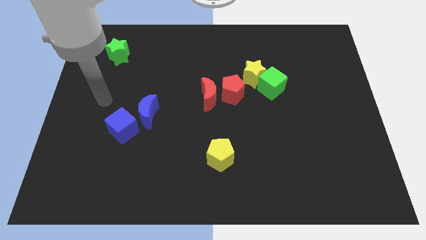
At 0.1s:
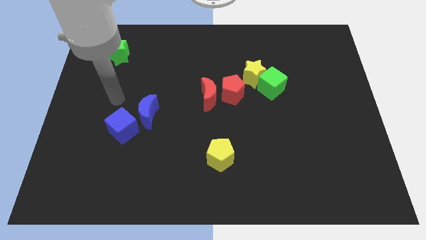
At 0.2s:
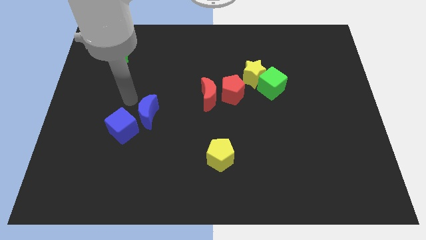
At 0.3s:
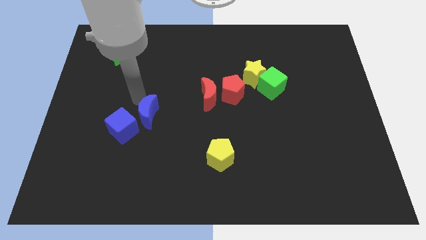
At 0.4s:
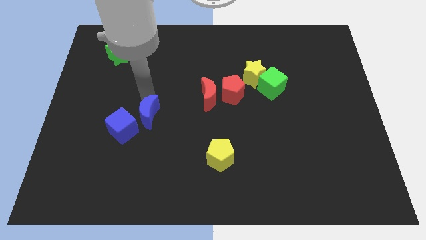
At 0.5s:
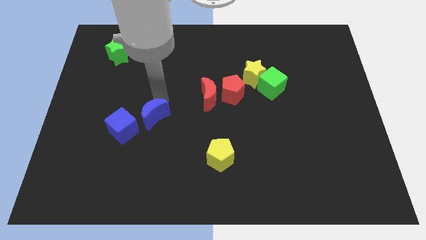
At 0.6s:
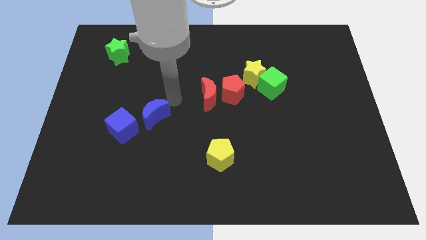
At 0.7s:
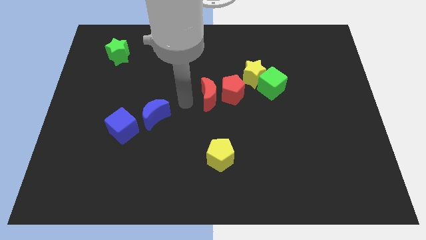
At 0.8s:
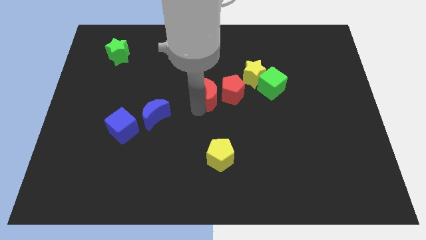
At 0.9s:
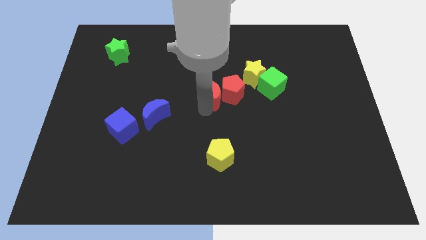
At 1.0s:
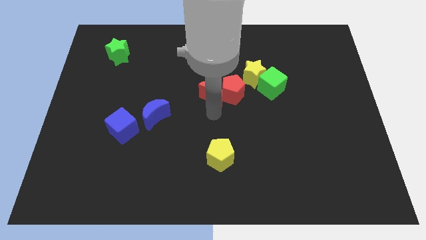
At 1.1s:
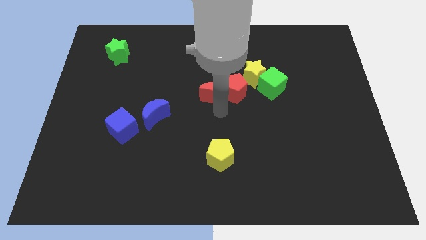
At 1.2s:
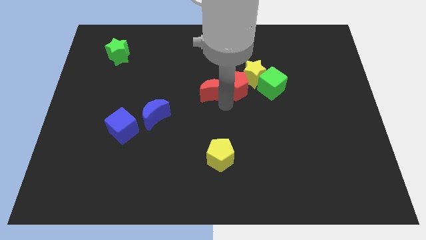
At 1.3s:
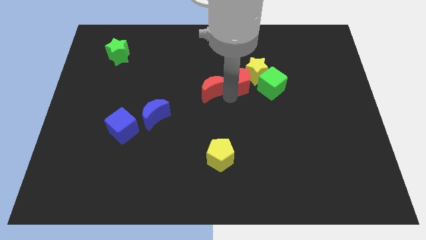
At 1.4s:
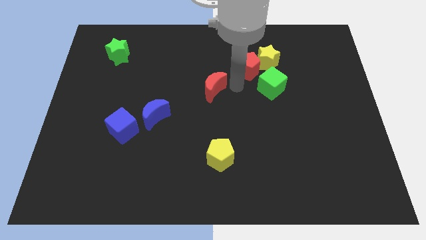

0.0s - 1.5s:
pull the red moon apart from the red pentagon

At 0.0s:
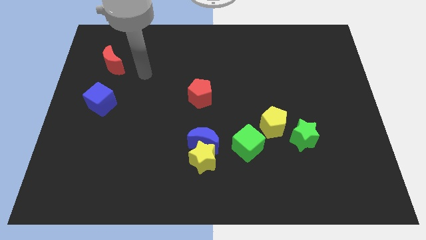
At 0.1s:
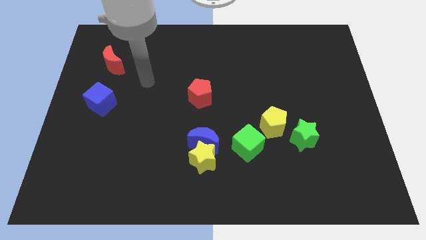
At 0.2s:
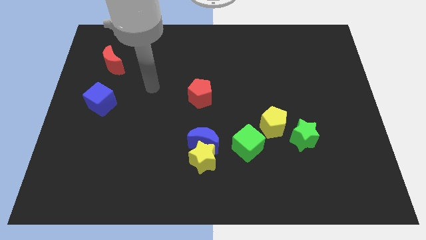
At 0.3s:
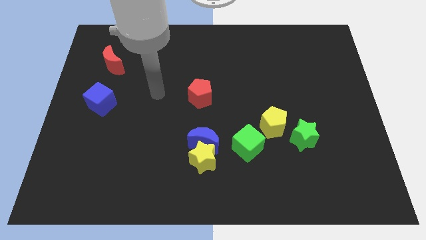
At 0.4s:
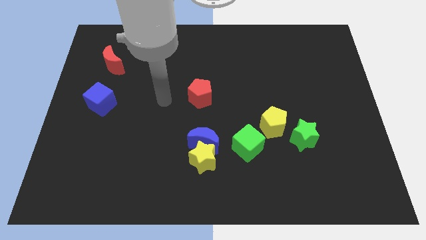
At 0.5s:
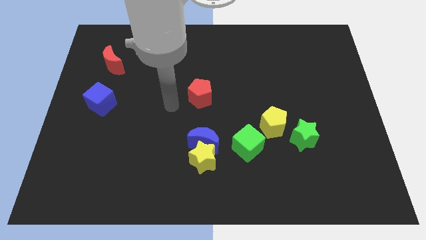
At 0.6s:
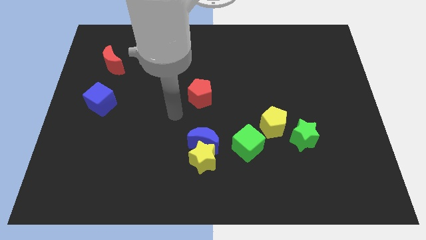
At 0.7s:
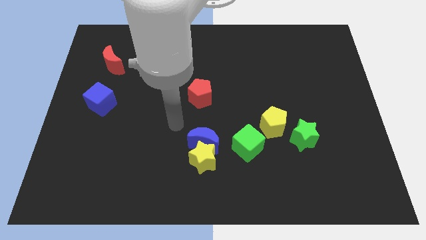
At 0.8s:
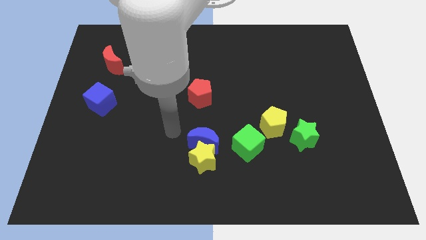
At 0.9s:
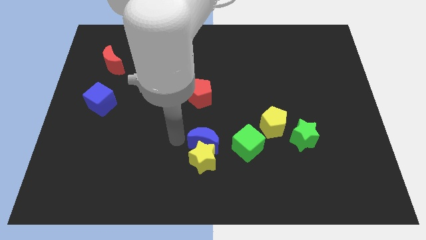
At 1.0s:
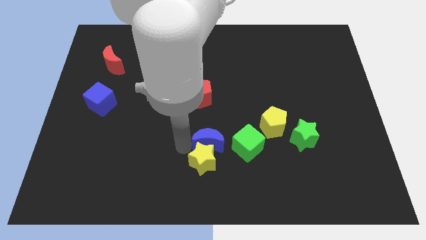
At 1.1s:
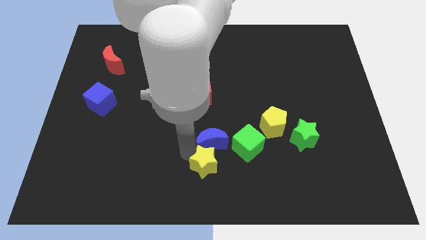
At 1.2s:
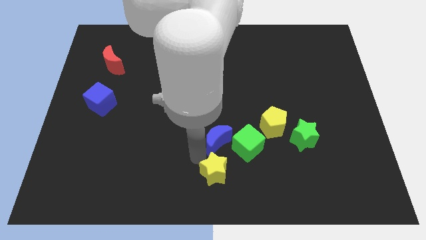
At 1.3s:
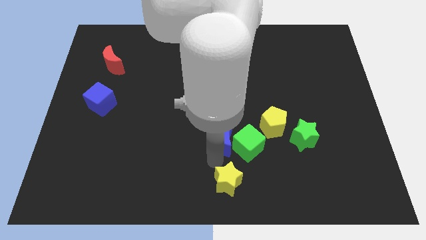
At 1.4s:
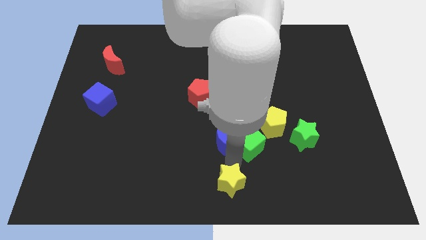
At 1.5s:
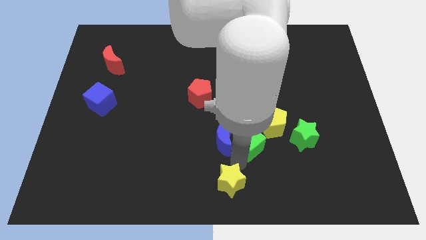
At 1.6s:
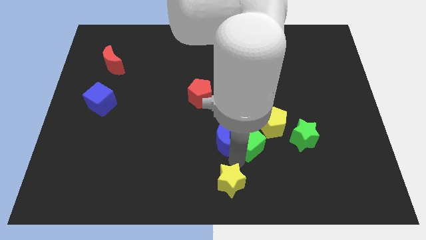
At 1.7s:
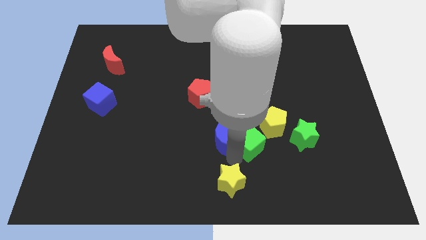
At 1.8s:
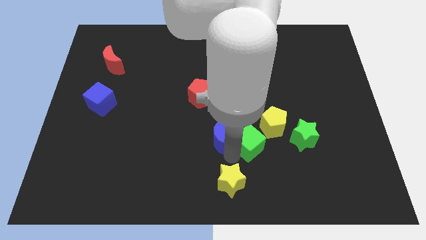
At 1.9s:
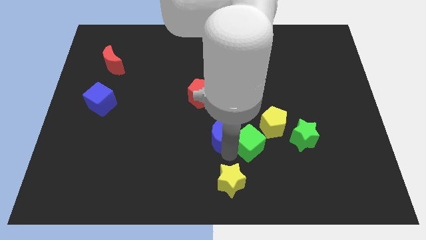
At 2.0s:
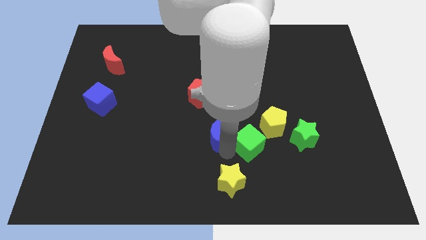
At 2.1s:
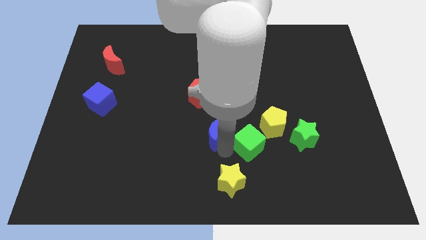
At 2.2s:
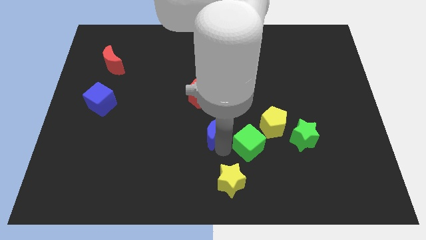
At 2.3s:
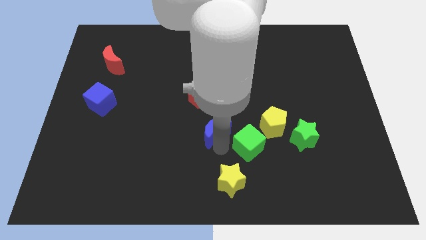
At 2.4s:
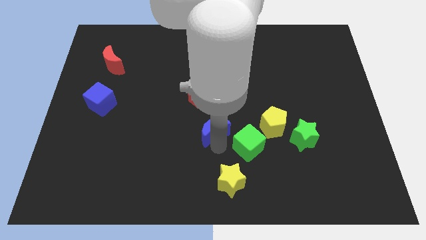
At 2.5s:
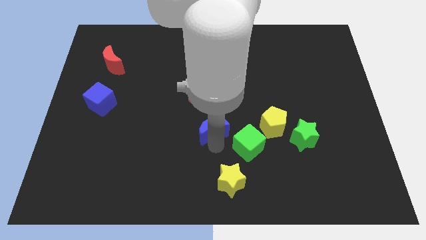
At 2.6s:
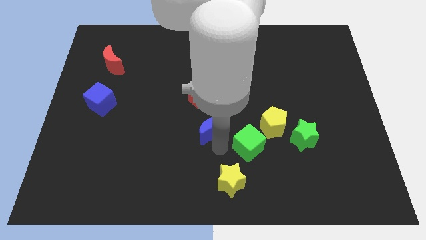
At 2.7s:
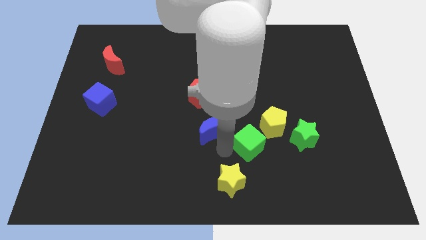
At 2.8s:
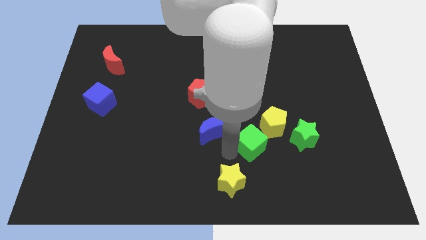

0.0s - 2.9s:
separate the blue moon from the yellow star and green cube

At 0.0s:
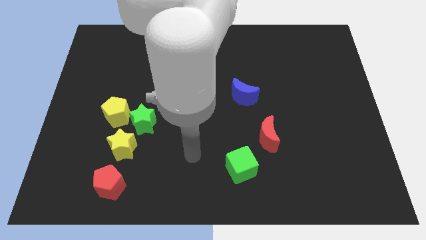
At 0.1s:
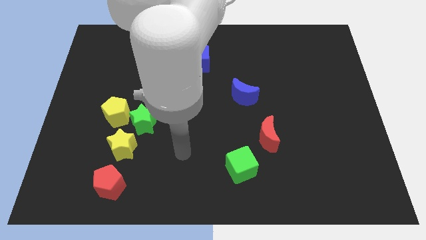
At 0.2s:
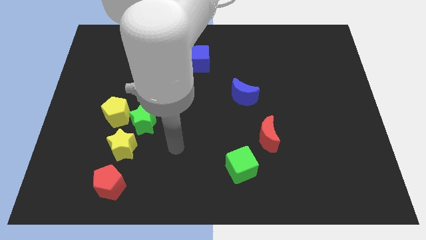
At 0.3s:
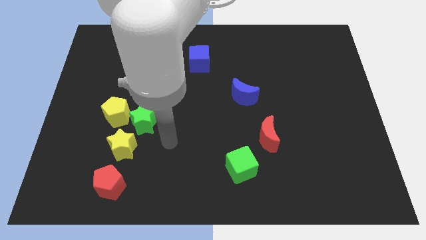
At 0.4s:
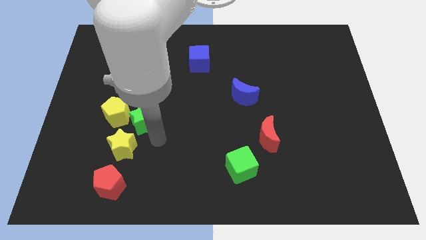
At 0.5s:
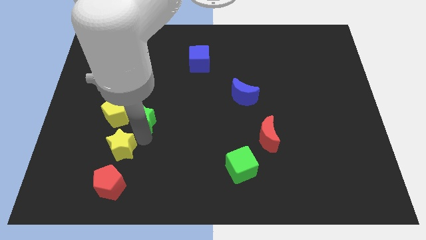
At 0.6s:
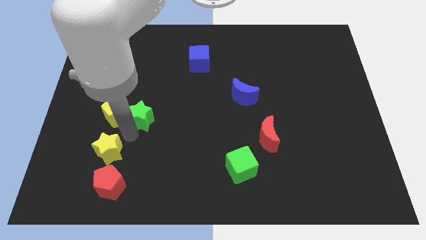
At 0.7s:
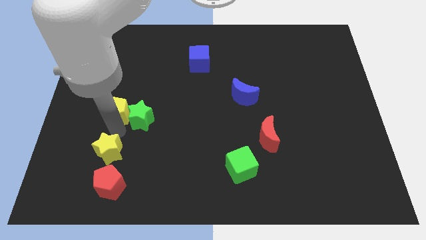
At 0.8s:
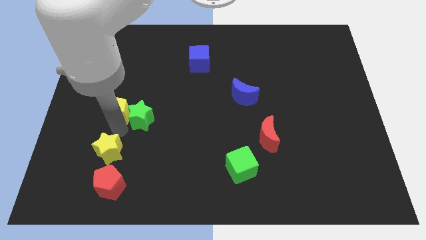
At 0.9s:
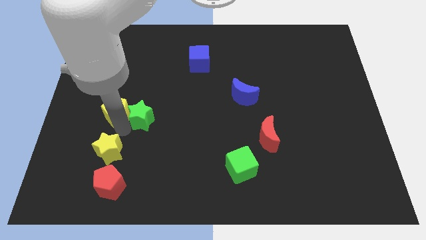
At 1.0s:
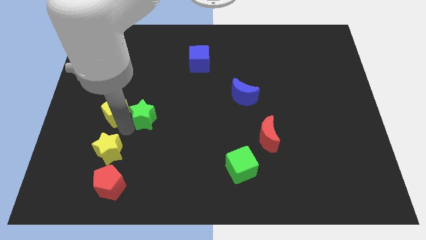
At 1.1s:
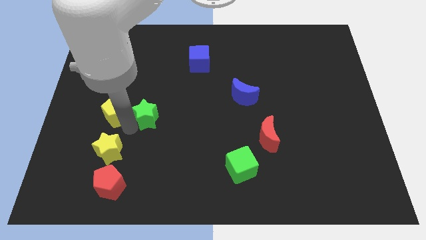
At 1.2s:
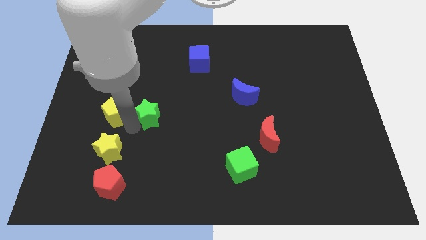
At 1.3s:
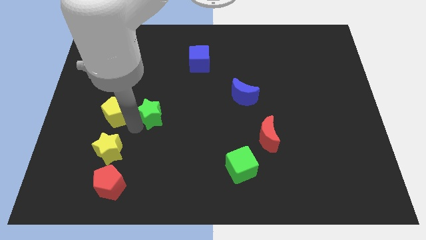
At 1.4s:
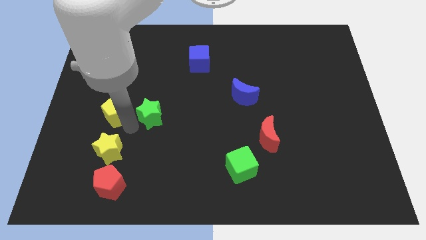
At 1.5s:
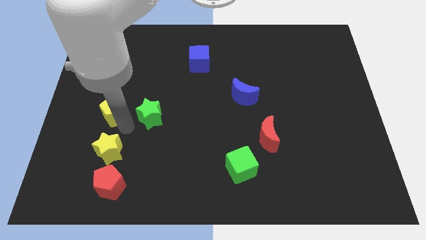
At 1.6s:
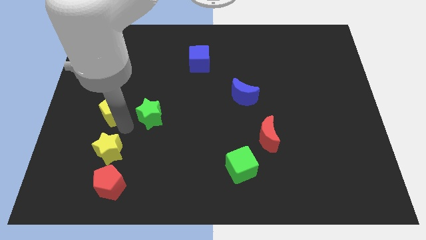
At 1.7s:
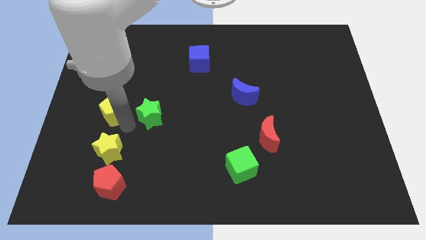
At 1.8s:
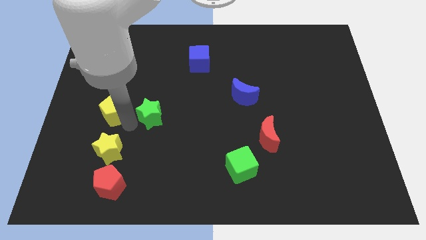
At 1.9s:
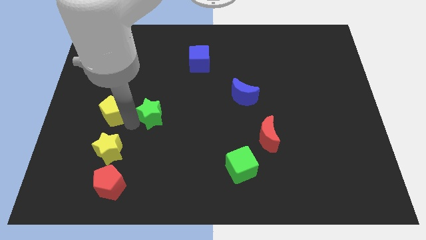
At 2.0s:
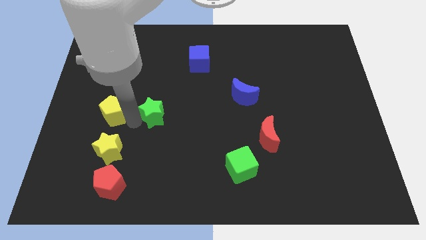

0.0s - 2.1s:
pull the green star apart from the yellow pentagon and yellow star

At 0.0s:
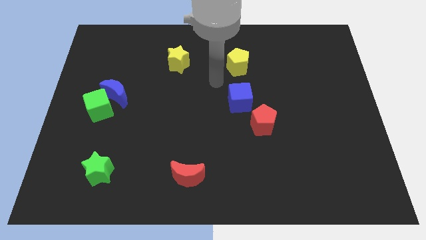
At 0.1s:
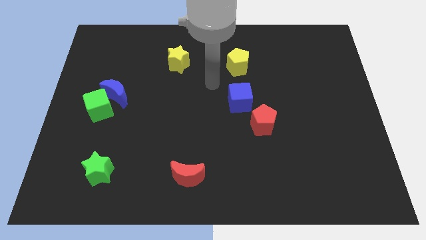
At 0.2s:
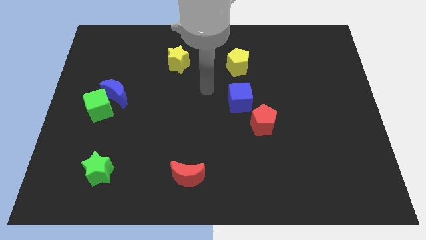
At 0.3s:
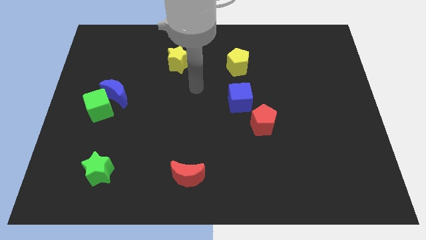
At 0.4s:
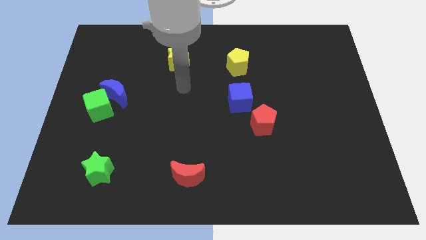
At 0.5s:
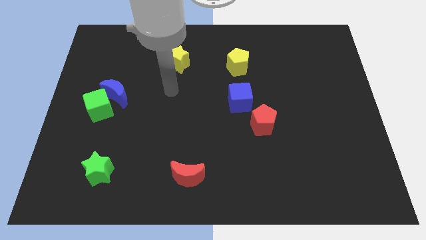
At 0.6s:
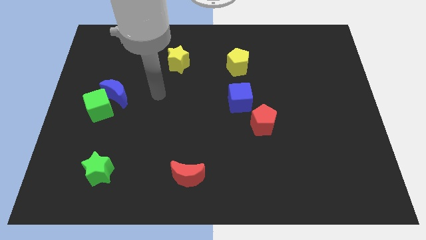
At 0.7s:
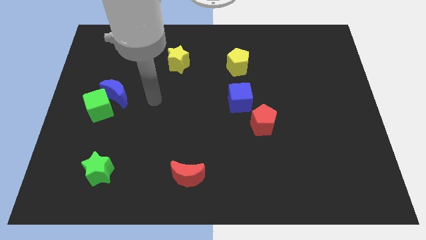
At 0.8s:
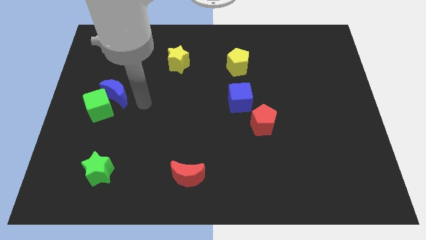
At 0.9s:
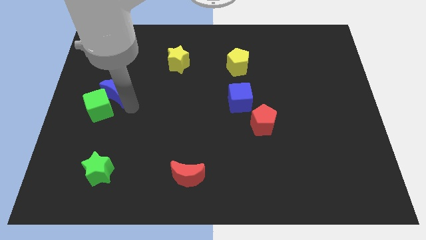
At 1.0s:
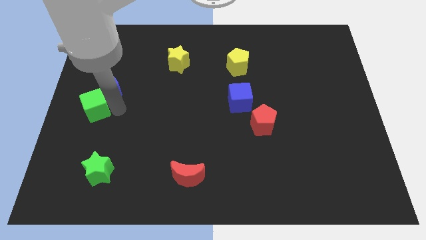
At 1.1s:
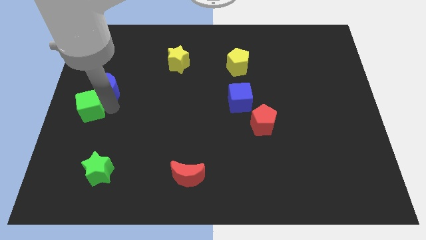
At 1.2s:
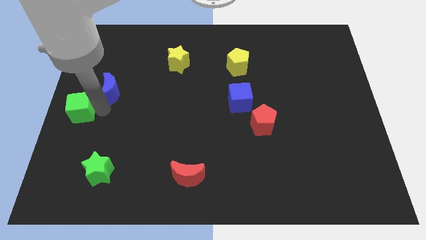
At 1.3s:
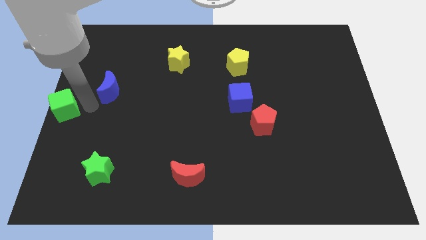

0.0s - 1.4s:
pull the blue moon apart from the green cube

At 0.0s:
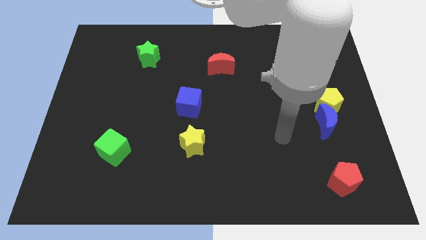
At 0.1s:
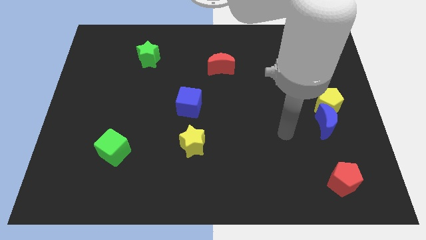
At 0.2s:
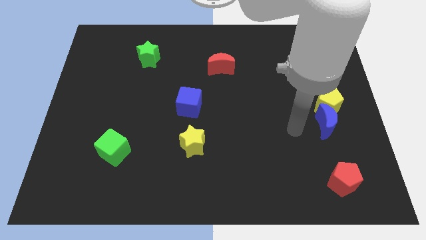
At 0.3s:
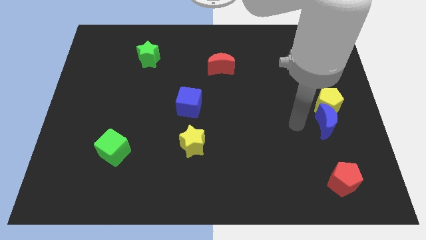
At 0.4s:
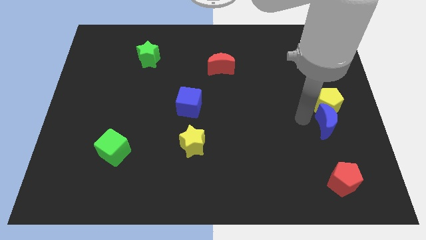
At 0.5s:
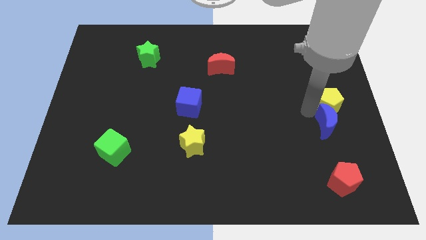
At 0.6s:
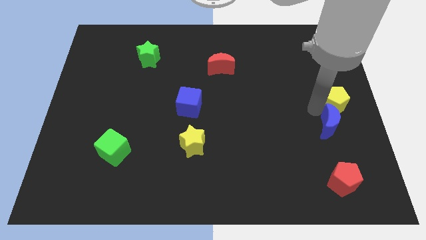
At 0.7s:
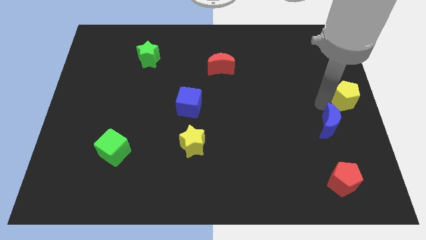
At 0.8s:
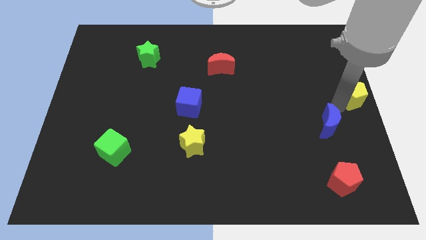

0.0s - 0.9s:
separate the blue moon from the yellow pentagon

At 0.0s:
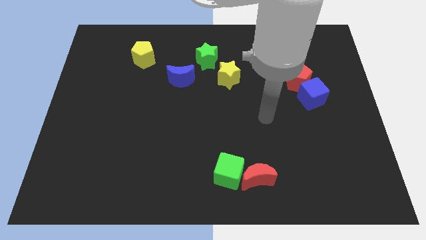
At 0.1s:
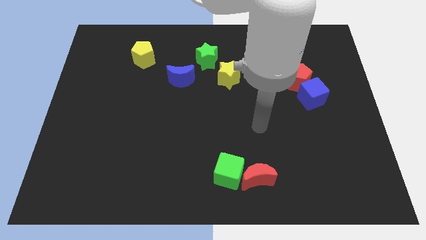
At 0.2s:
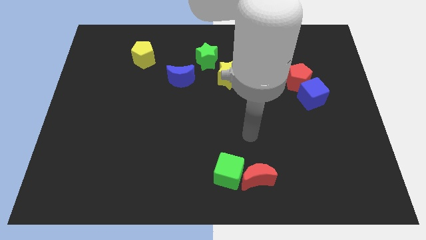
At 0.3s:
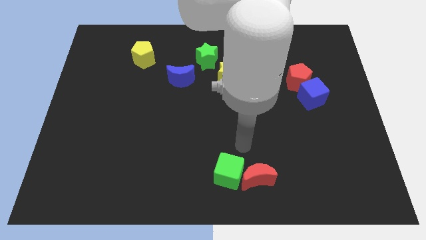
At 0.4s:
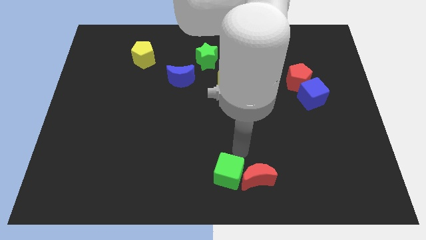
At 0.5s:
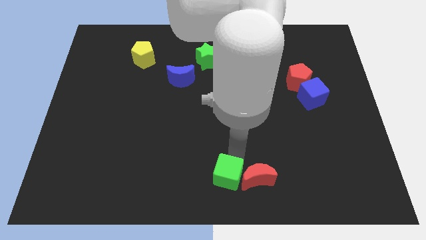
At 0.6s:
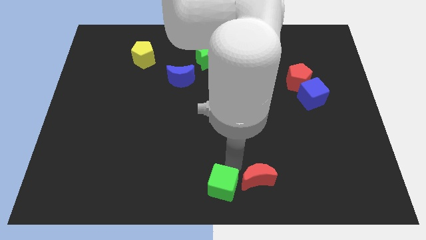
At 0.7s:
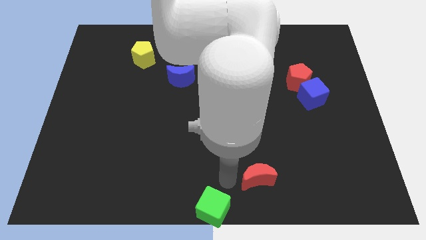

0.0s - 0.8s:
pull the red moon apart from the green cube
